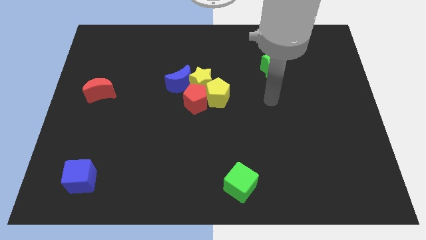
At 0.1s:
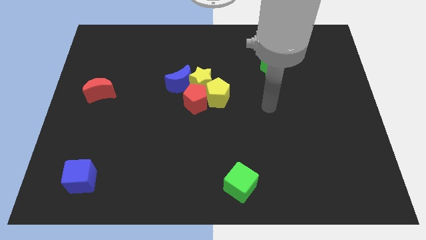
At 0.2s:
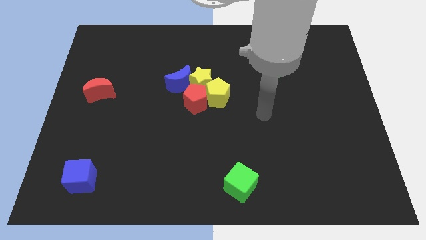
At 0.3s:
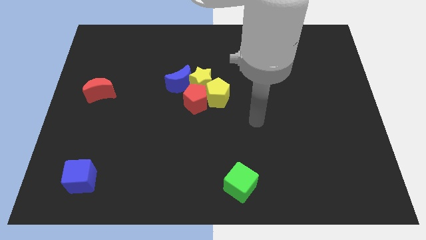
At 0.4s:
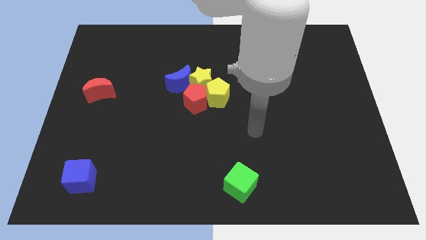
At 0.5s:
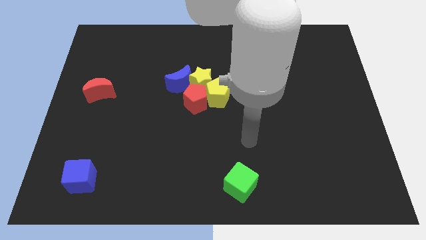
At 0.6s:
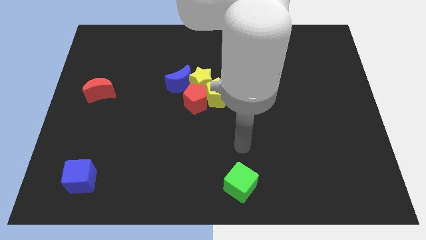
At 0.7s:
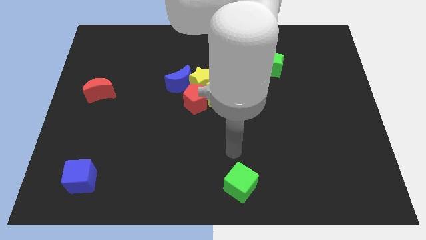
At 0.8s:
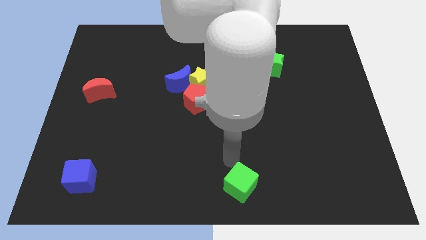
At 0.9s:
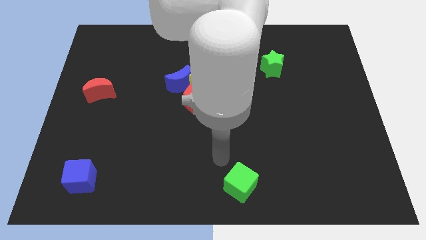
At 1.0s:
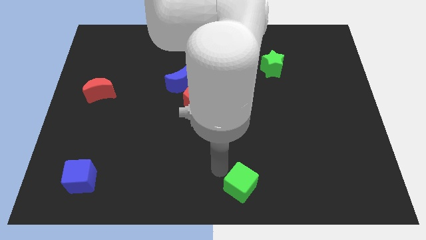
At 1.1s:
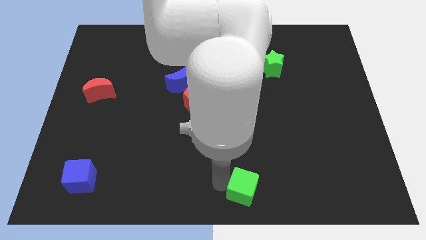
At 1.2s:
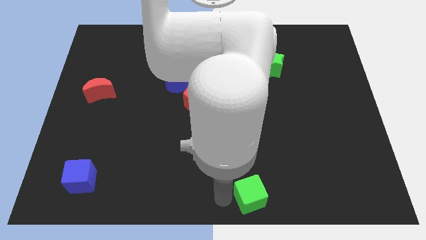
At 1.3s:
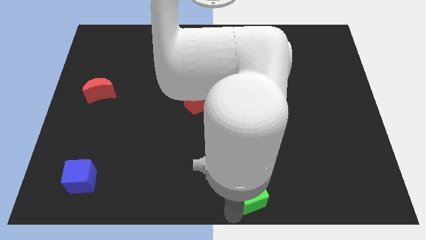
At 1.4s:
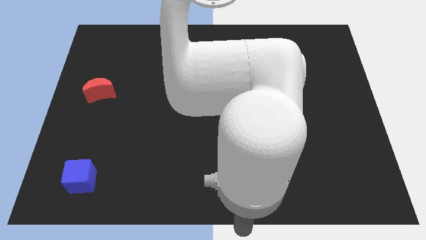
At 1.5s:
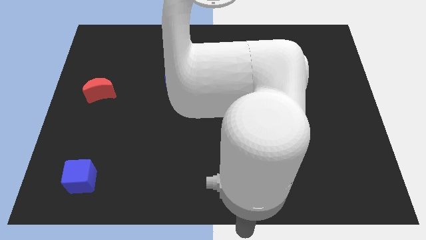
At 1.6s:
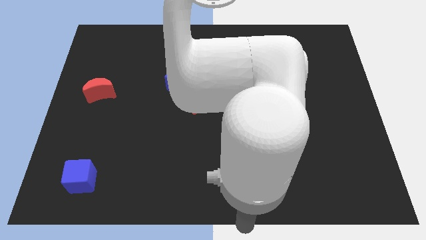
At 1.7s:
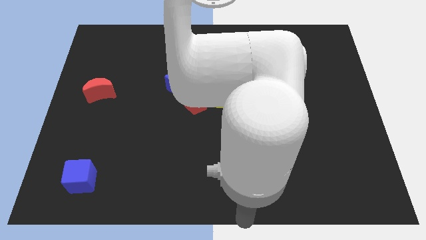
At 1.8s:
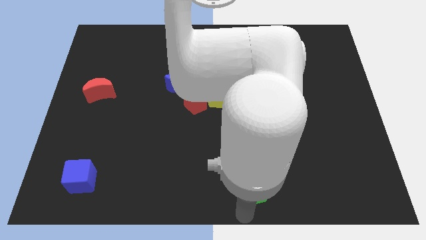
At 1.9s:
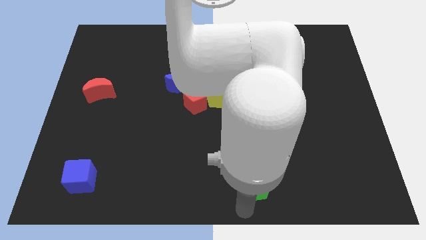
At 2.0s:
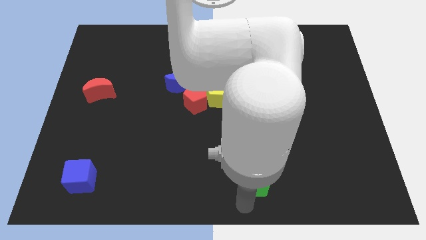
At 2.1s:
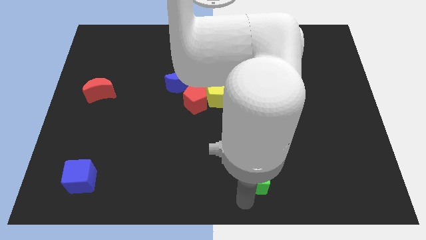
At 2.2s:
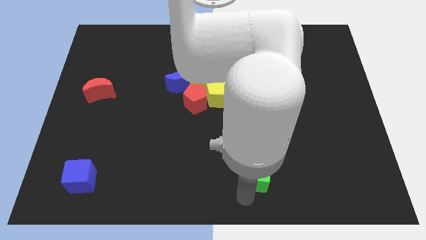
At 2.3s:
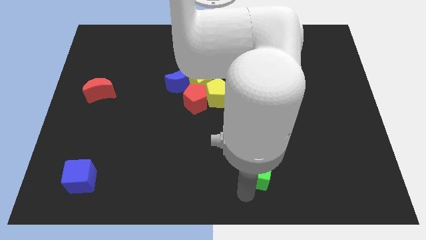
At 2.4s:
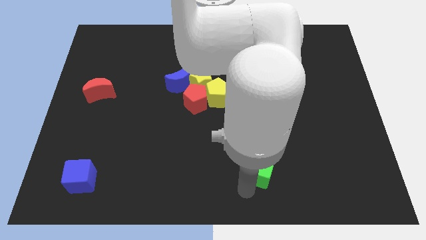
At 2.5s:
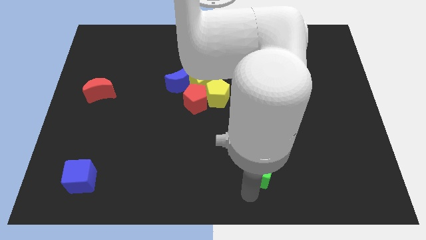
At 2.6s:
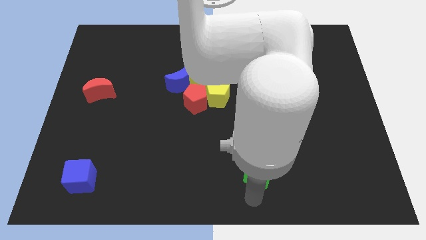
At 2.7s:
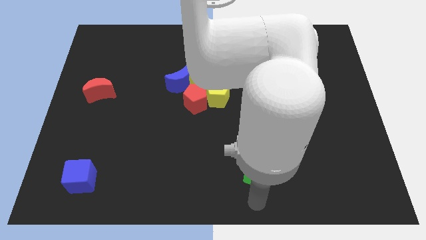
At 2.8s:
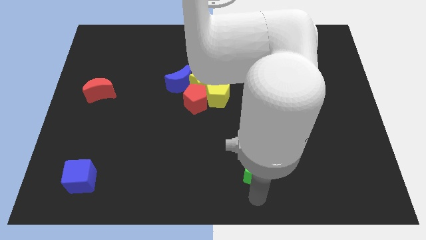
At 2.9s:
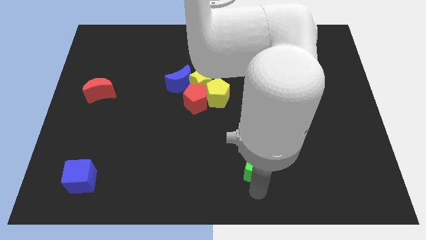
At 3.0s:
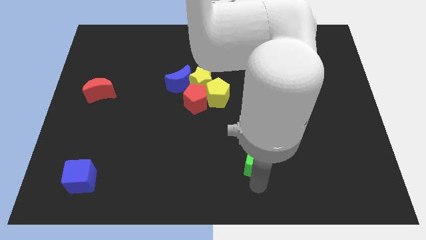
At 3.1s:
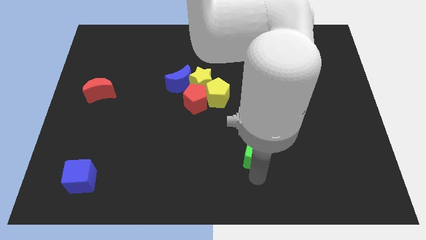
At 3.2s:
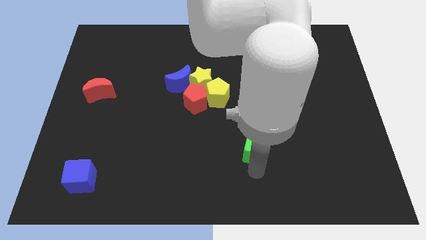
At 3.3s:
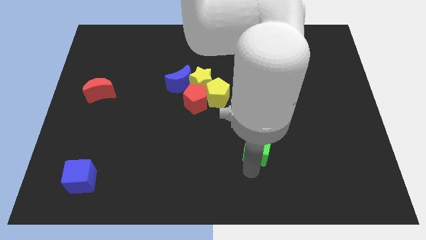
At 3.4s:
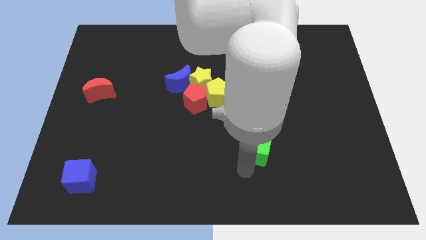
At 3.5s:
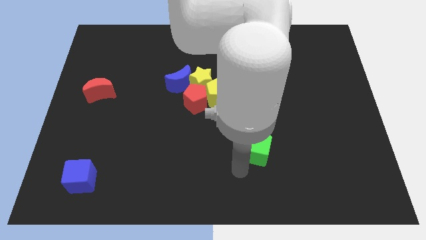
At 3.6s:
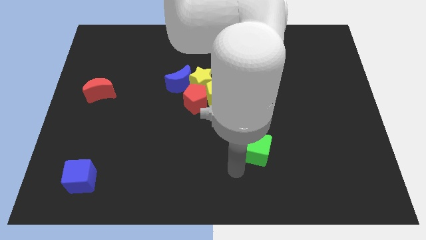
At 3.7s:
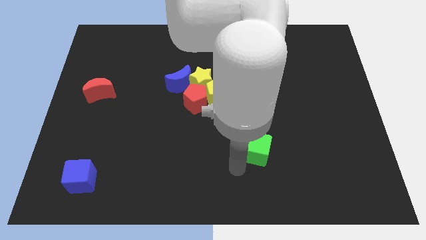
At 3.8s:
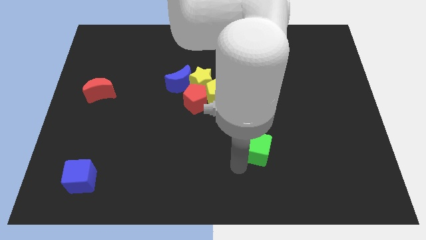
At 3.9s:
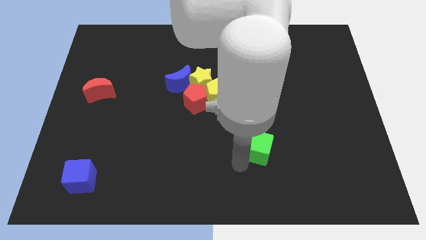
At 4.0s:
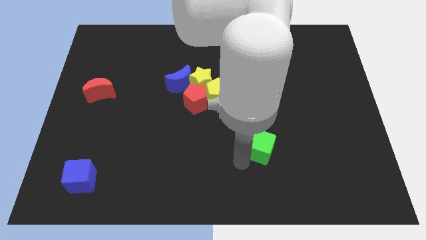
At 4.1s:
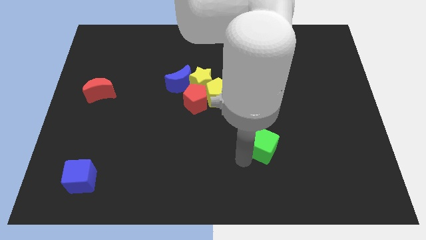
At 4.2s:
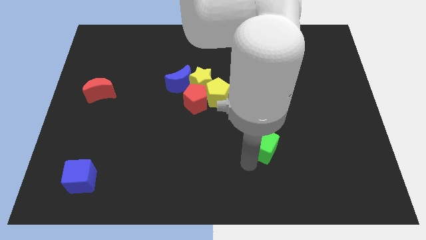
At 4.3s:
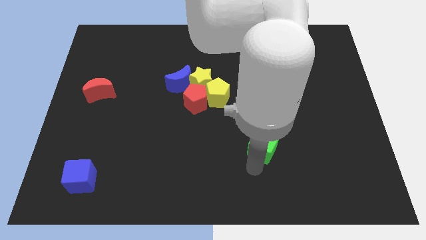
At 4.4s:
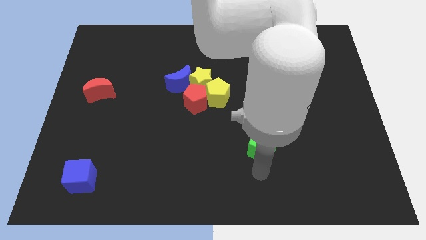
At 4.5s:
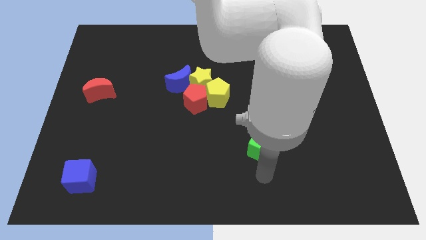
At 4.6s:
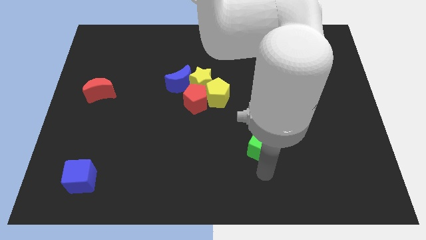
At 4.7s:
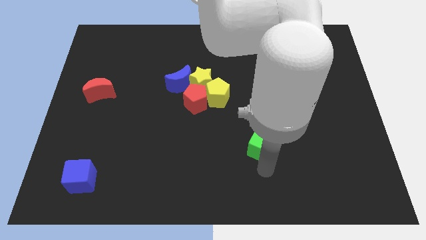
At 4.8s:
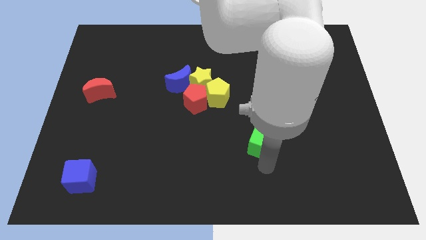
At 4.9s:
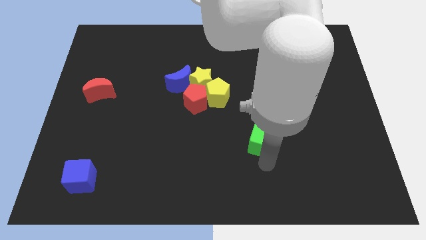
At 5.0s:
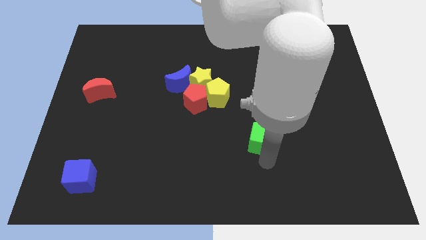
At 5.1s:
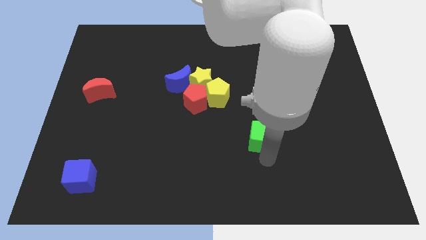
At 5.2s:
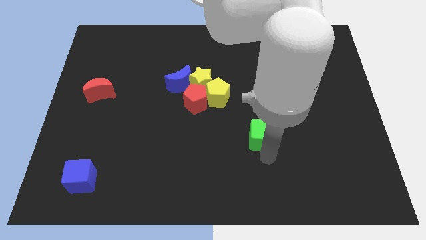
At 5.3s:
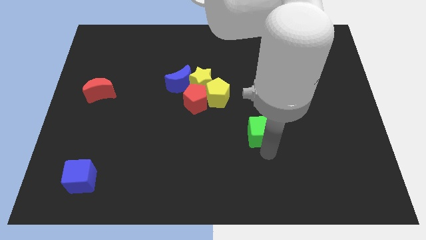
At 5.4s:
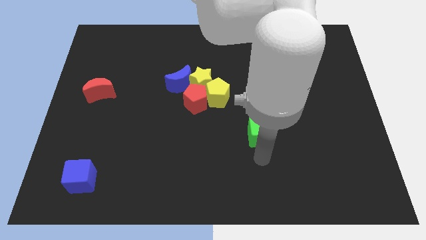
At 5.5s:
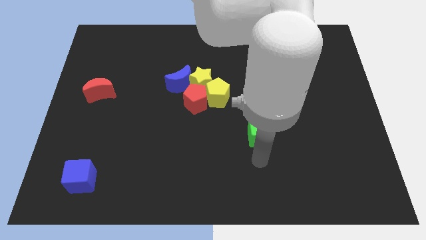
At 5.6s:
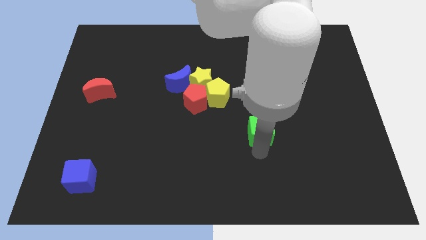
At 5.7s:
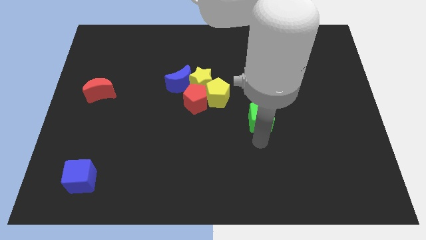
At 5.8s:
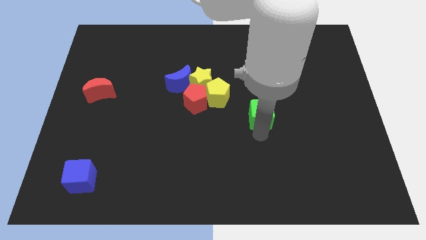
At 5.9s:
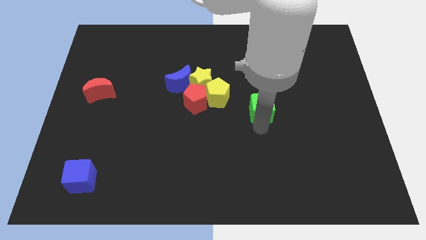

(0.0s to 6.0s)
push the green cube right of the yellow pentagon

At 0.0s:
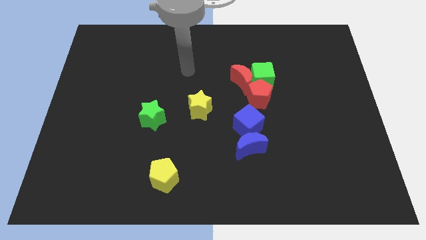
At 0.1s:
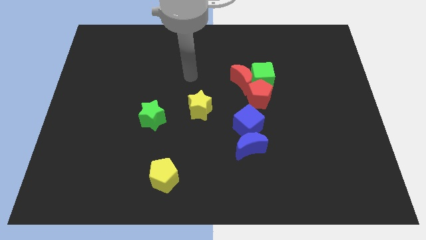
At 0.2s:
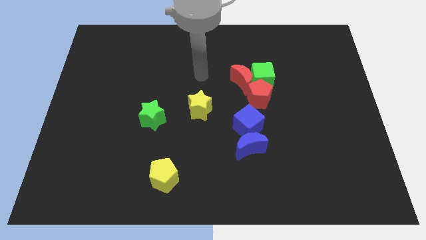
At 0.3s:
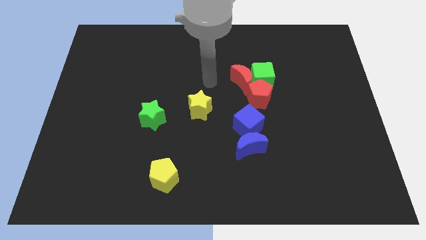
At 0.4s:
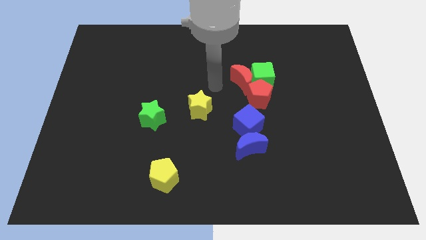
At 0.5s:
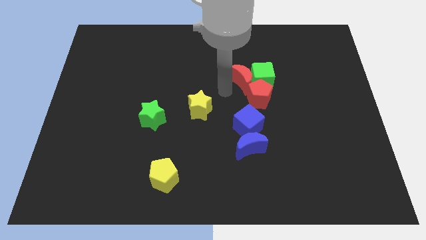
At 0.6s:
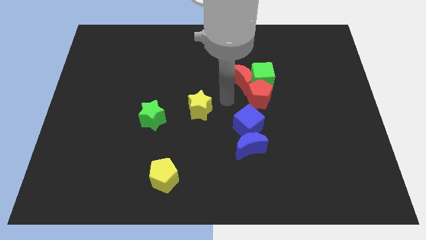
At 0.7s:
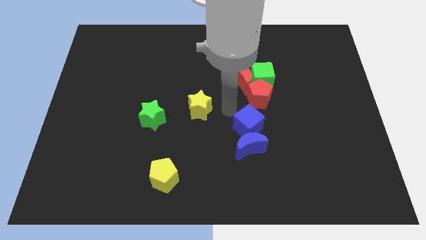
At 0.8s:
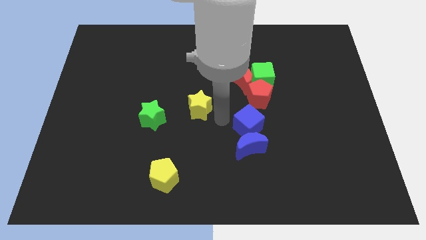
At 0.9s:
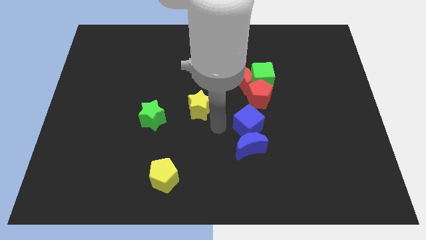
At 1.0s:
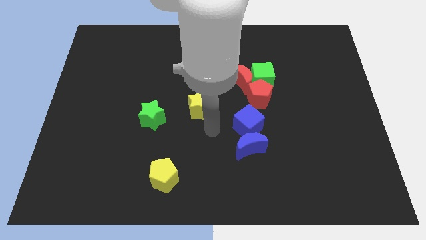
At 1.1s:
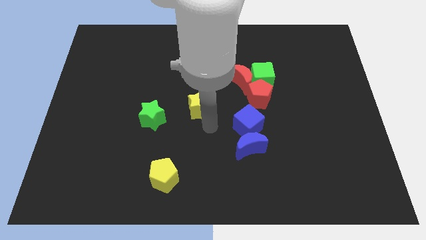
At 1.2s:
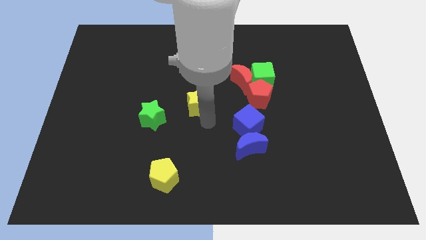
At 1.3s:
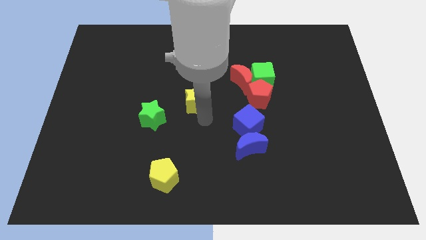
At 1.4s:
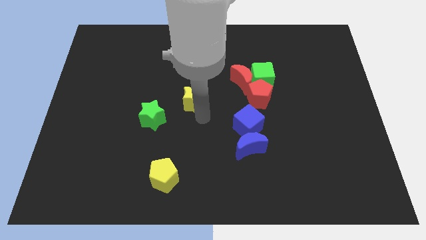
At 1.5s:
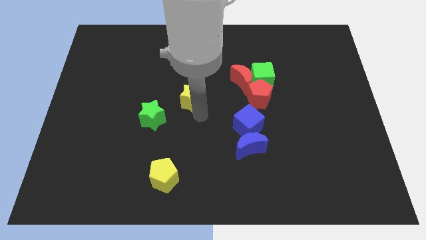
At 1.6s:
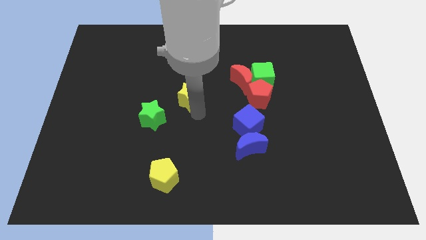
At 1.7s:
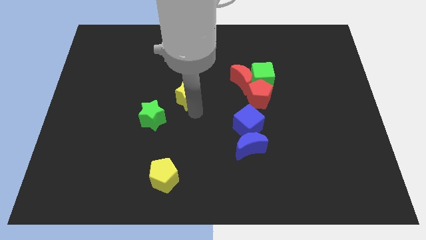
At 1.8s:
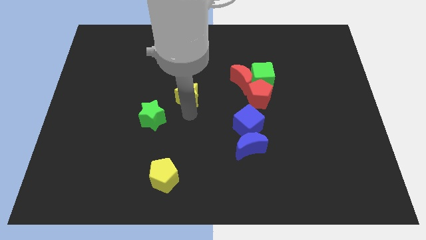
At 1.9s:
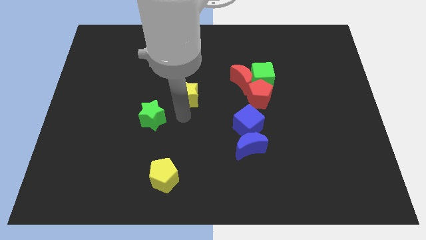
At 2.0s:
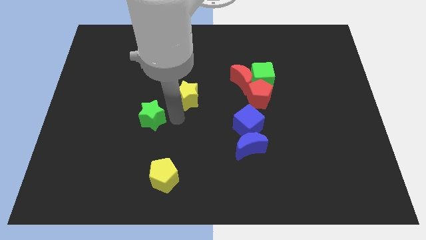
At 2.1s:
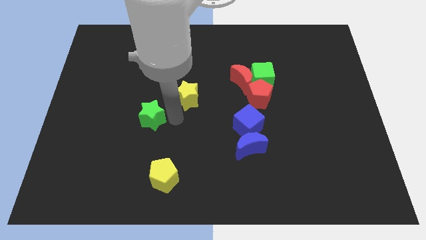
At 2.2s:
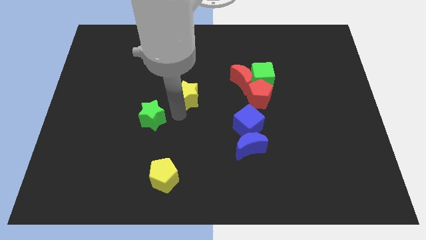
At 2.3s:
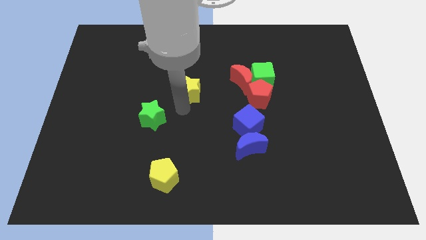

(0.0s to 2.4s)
move the yellow star to the left side of the red moon
